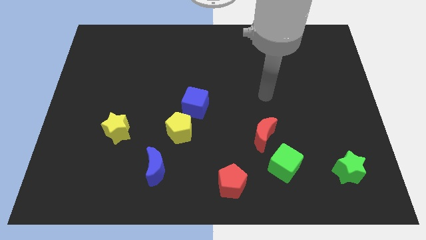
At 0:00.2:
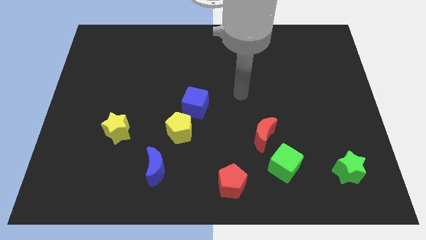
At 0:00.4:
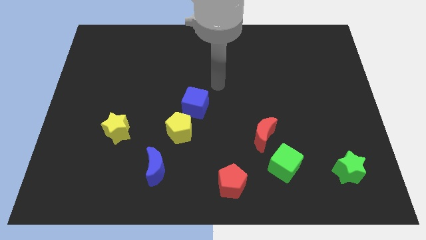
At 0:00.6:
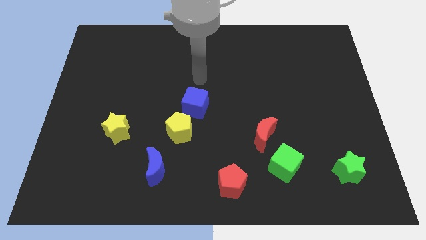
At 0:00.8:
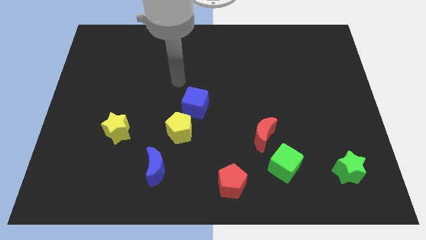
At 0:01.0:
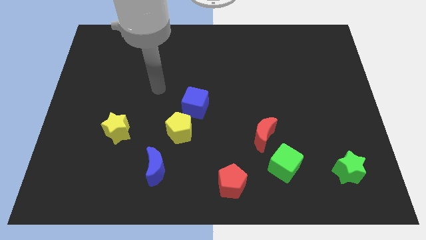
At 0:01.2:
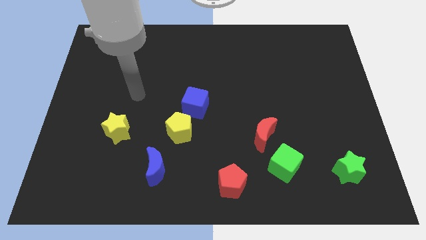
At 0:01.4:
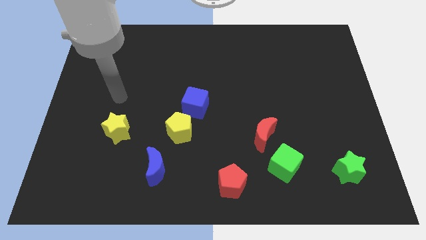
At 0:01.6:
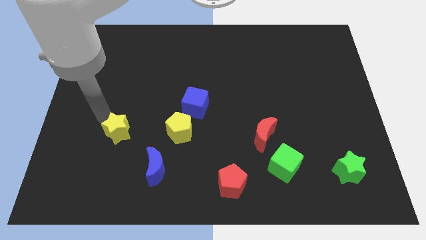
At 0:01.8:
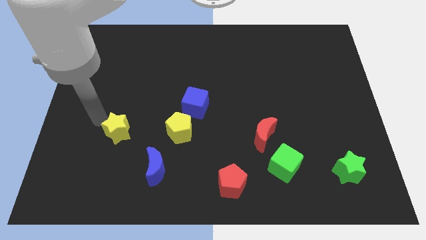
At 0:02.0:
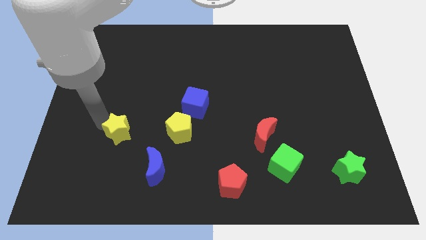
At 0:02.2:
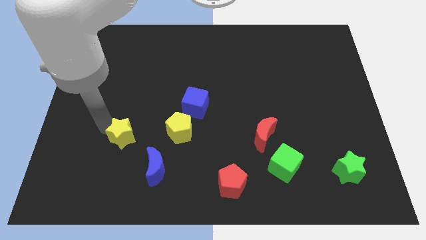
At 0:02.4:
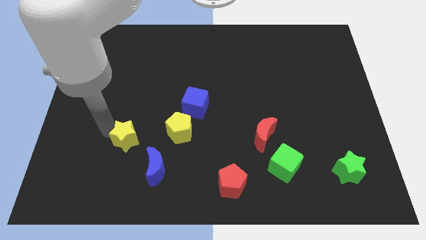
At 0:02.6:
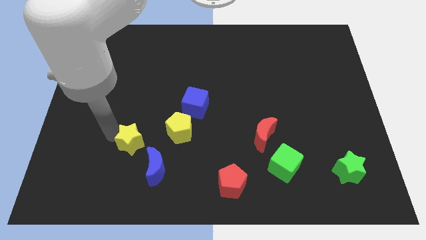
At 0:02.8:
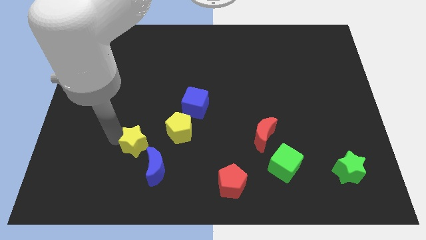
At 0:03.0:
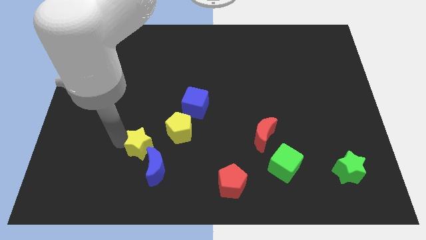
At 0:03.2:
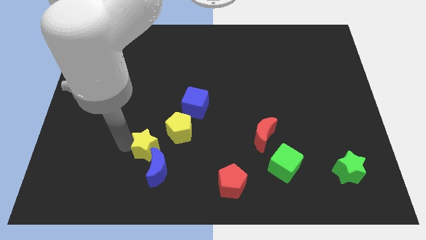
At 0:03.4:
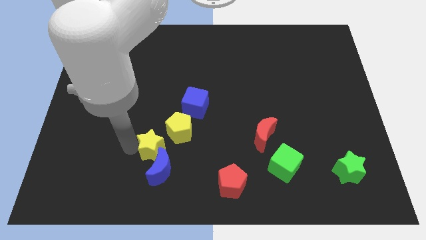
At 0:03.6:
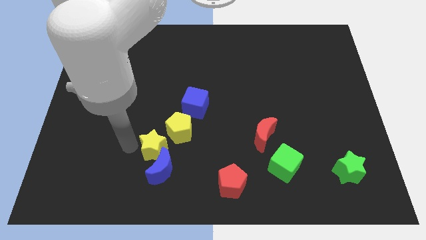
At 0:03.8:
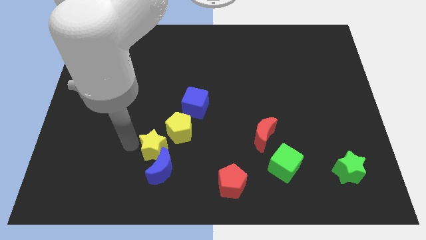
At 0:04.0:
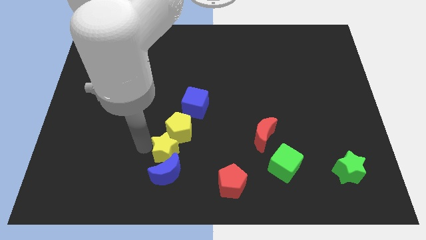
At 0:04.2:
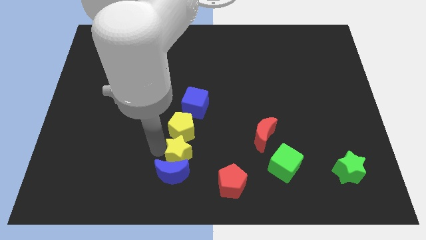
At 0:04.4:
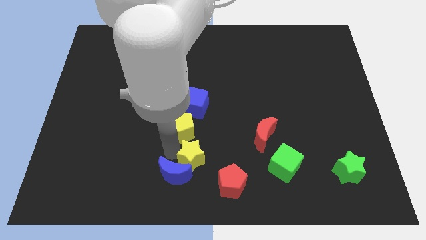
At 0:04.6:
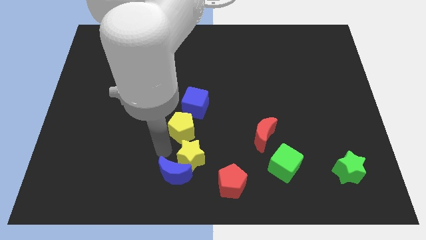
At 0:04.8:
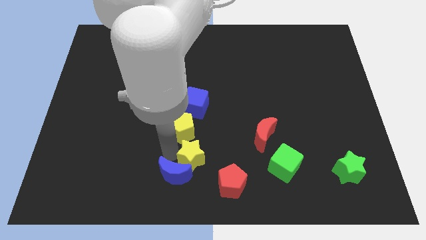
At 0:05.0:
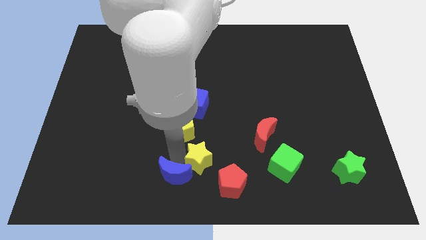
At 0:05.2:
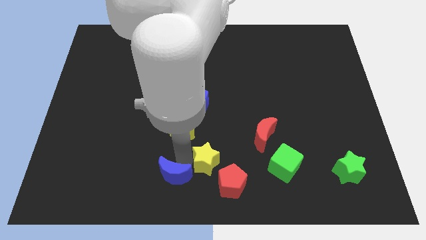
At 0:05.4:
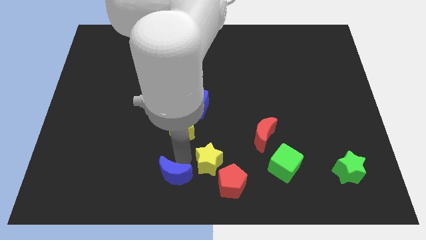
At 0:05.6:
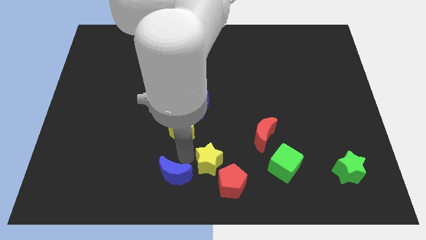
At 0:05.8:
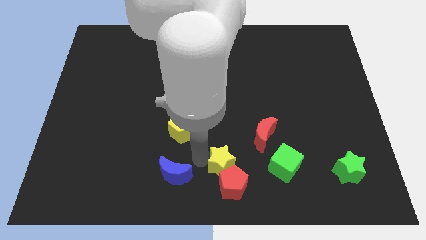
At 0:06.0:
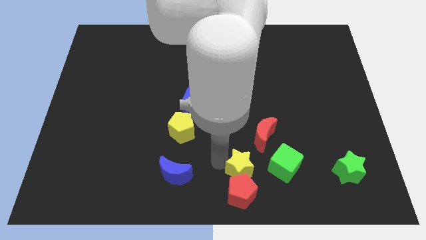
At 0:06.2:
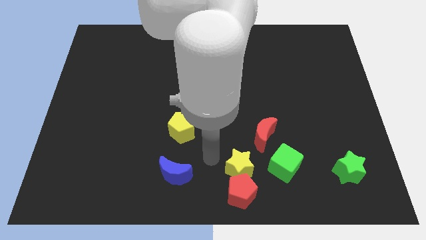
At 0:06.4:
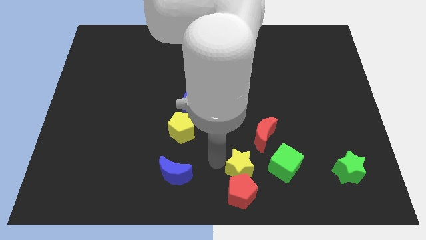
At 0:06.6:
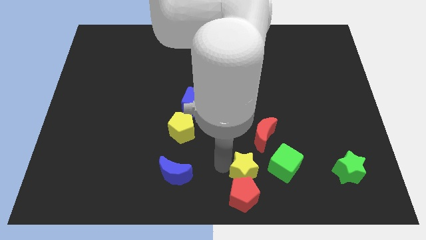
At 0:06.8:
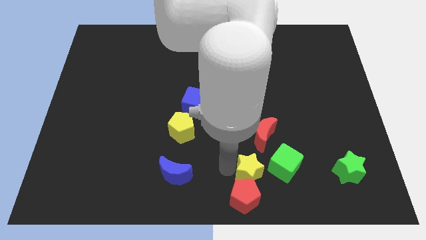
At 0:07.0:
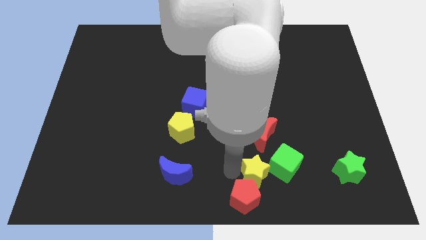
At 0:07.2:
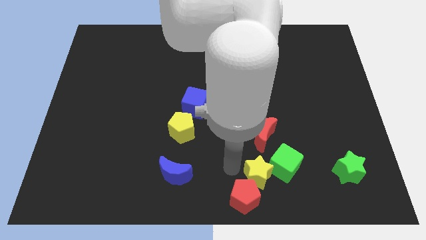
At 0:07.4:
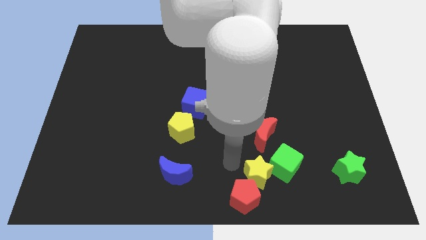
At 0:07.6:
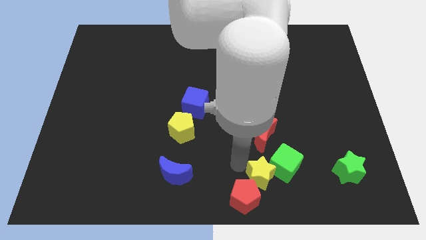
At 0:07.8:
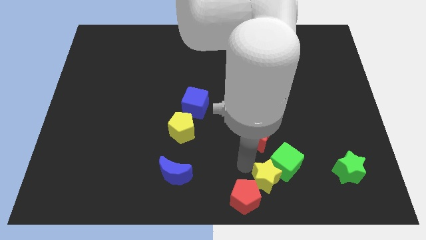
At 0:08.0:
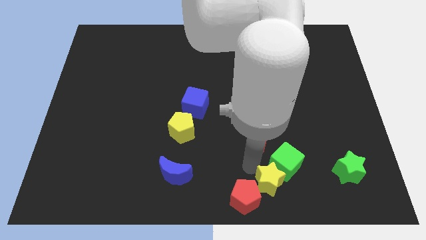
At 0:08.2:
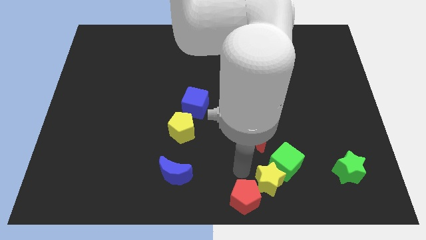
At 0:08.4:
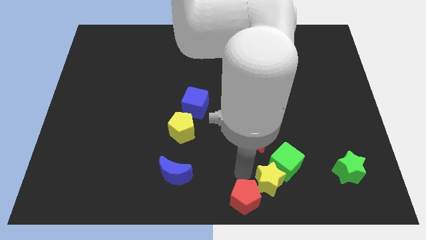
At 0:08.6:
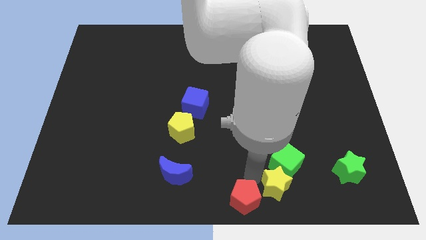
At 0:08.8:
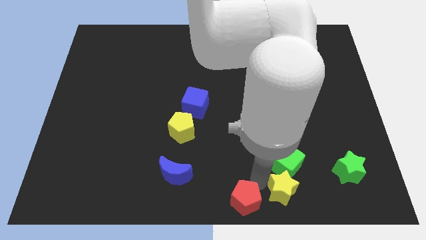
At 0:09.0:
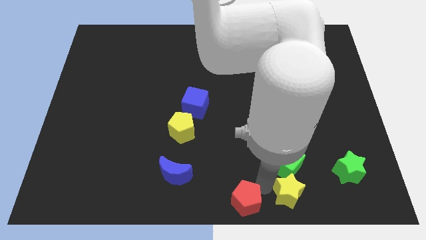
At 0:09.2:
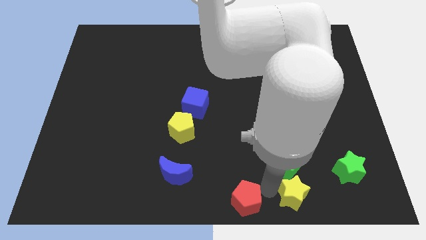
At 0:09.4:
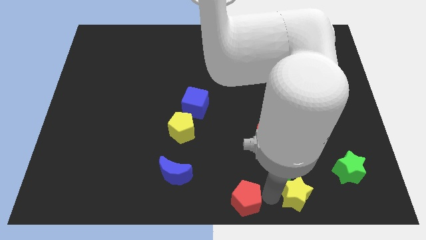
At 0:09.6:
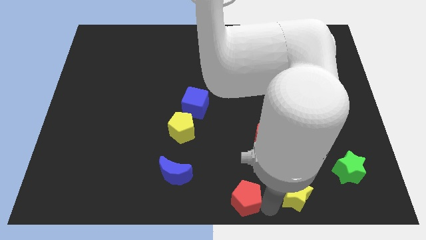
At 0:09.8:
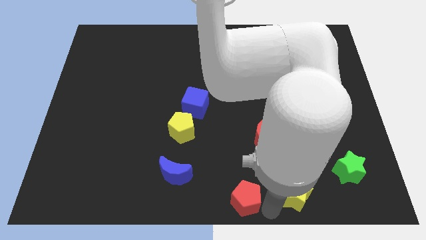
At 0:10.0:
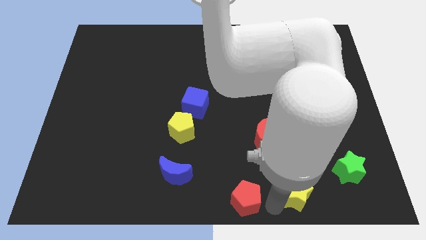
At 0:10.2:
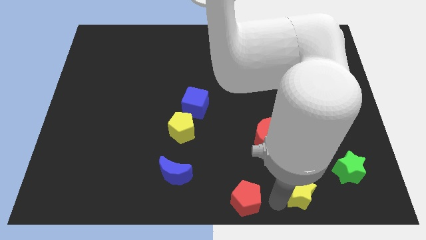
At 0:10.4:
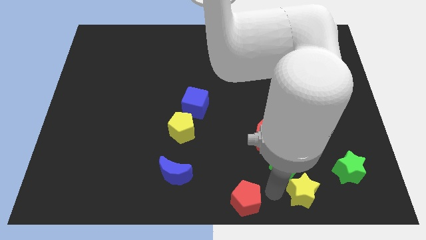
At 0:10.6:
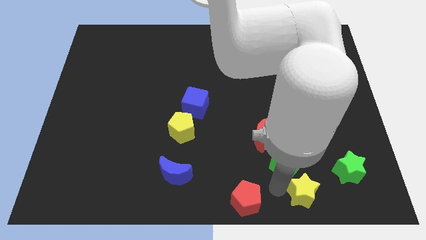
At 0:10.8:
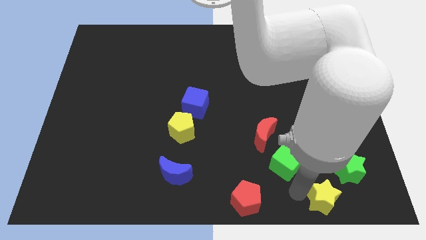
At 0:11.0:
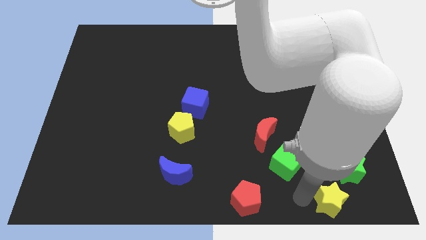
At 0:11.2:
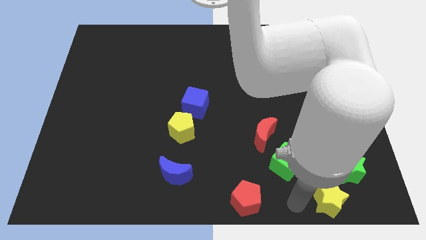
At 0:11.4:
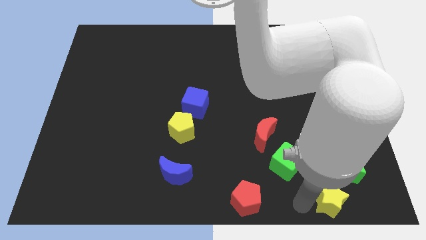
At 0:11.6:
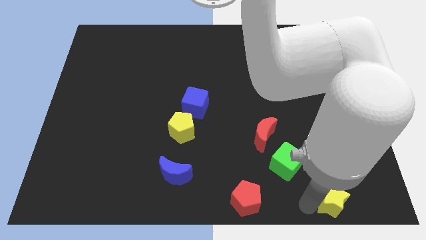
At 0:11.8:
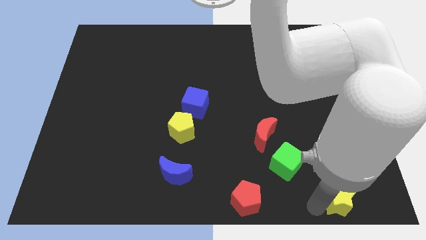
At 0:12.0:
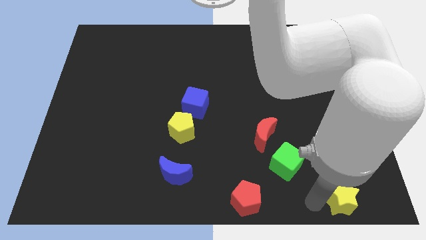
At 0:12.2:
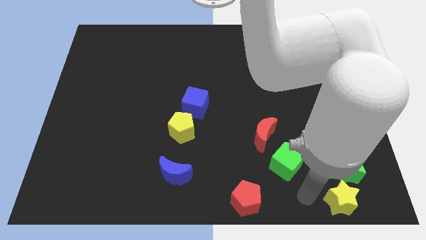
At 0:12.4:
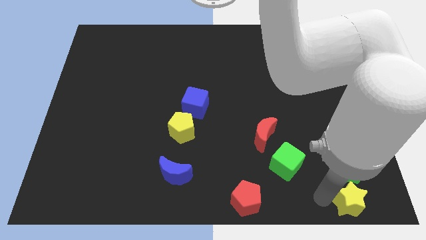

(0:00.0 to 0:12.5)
push the yellow star to the bottom right of the board

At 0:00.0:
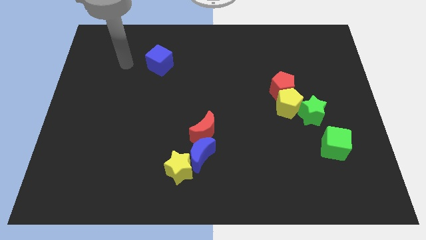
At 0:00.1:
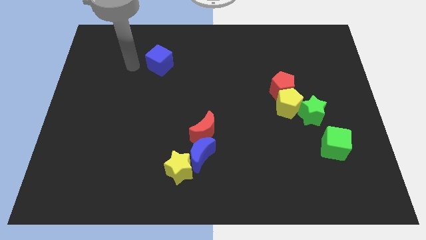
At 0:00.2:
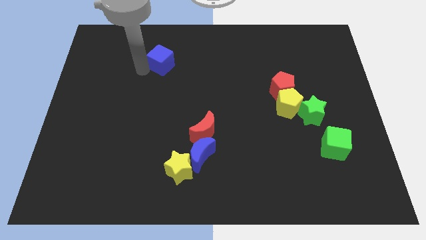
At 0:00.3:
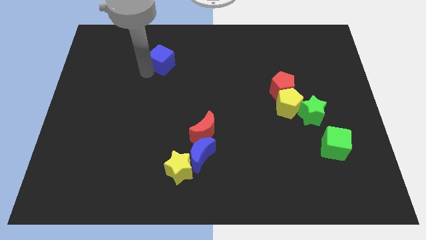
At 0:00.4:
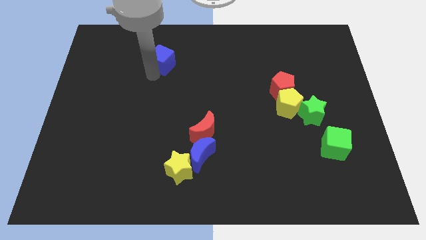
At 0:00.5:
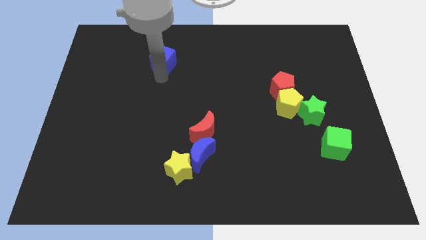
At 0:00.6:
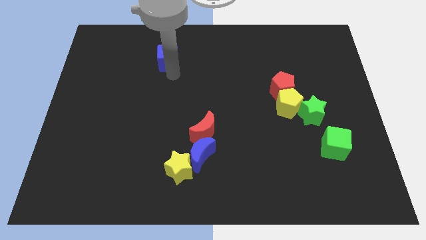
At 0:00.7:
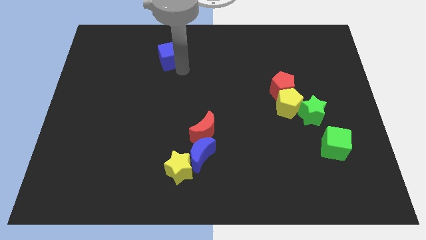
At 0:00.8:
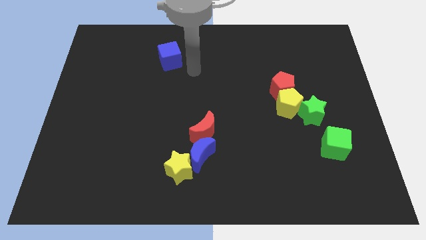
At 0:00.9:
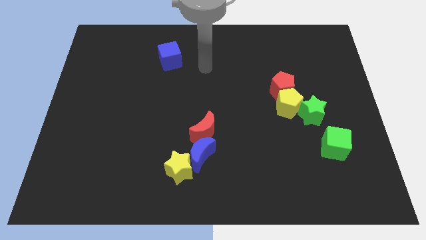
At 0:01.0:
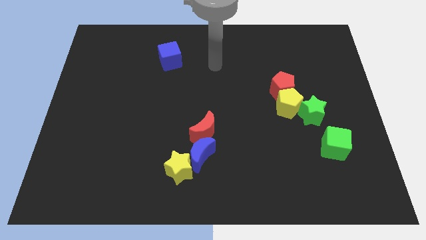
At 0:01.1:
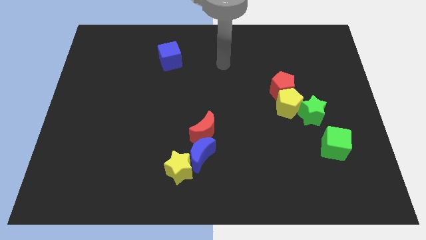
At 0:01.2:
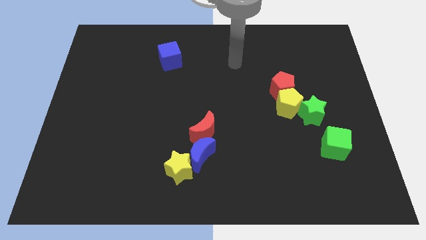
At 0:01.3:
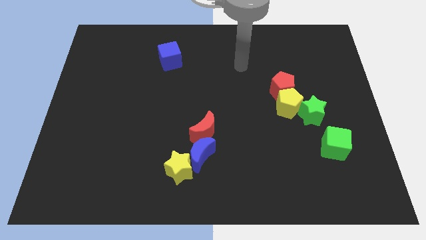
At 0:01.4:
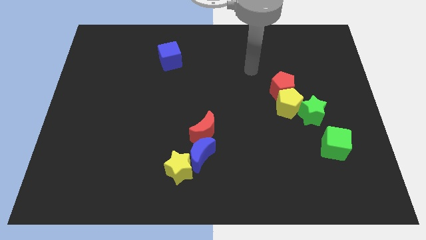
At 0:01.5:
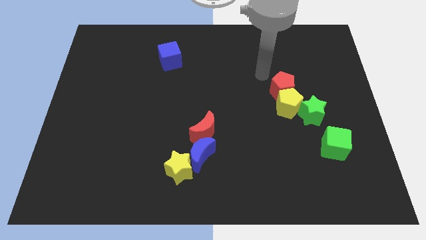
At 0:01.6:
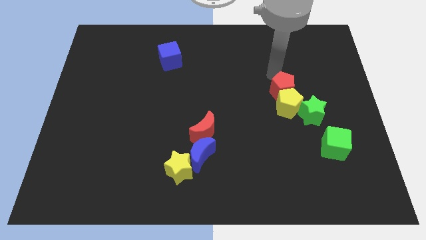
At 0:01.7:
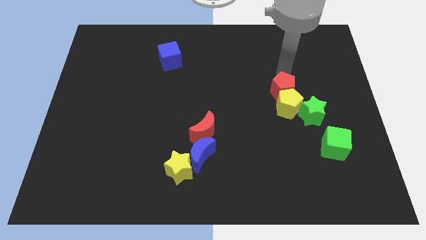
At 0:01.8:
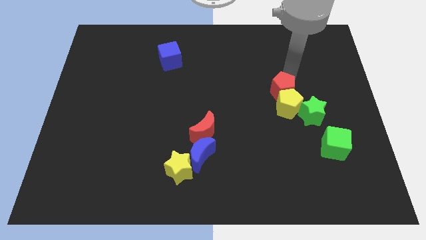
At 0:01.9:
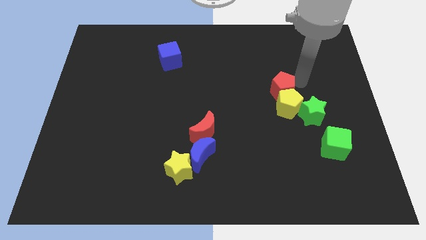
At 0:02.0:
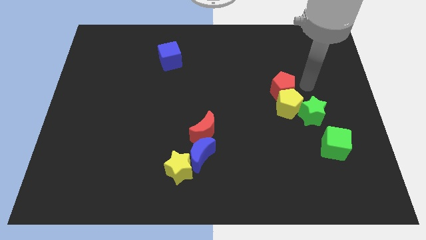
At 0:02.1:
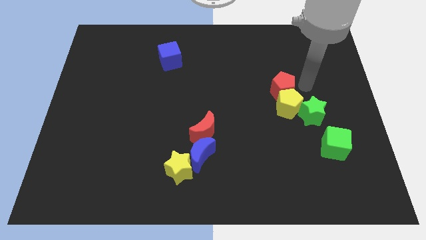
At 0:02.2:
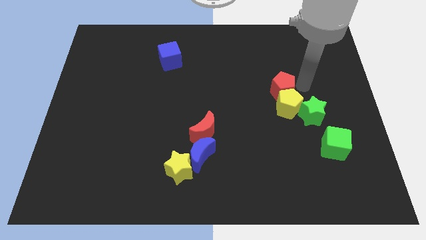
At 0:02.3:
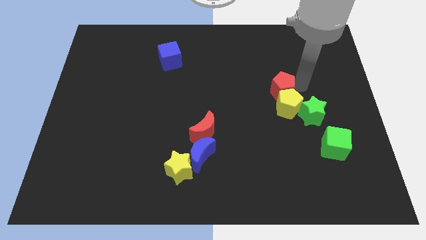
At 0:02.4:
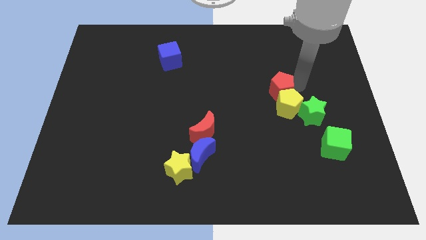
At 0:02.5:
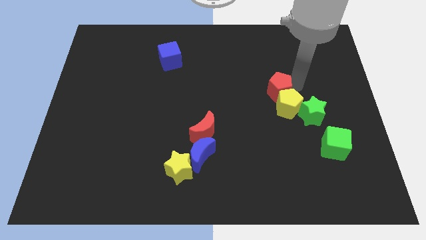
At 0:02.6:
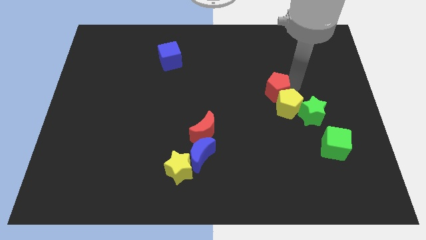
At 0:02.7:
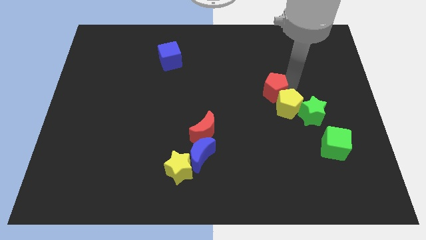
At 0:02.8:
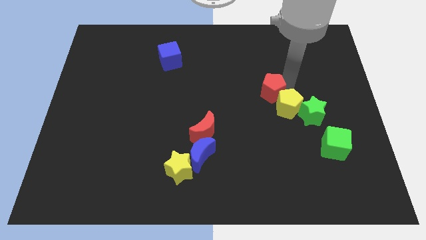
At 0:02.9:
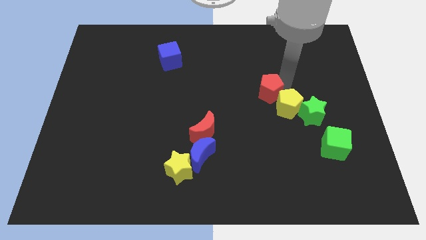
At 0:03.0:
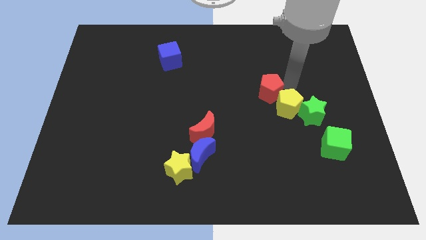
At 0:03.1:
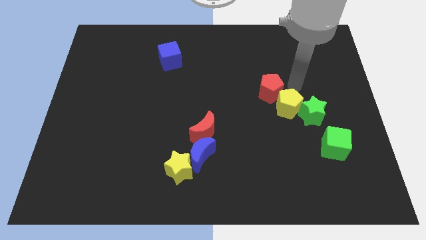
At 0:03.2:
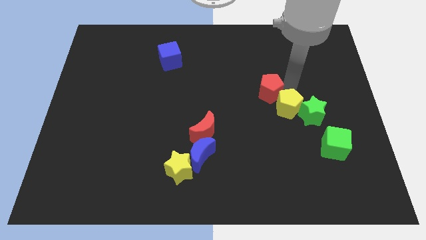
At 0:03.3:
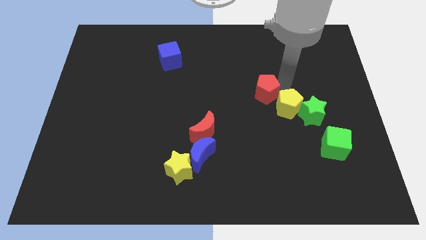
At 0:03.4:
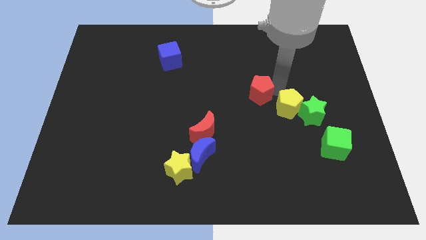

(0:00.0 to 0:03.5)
move the red pentagon to the center
